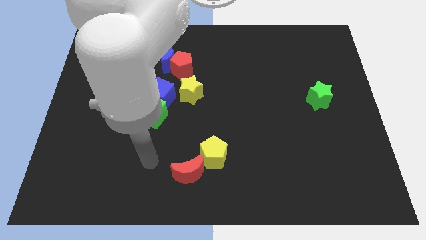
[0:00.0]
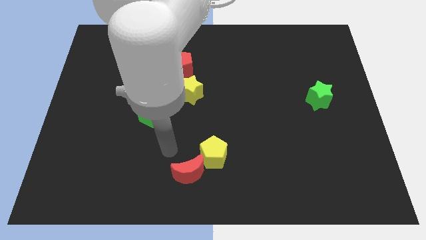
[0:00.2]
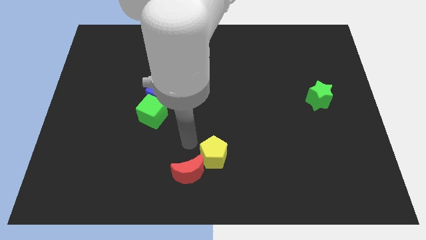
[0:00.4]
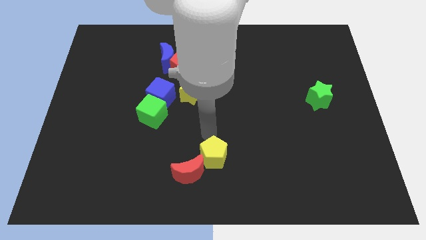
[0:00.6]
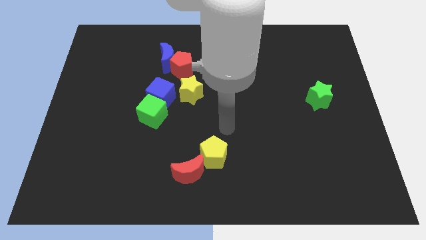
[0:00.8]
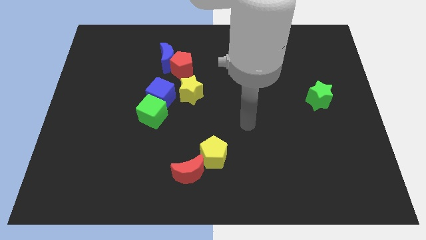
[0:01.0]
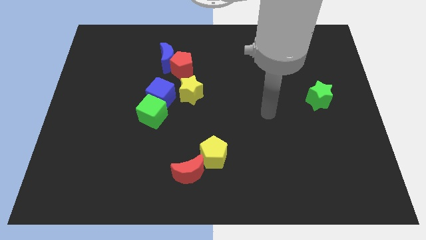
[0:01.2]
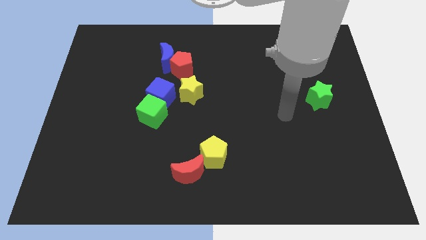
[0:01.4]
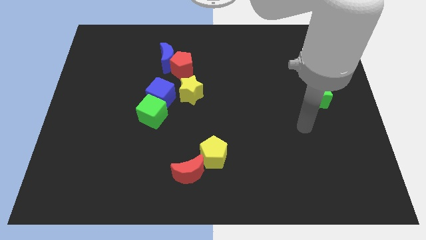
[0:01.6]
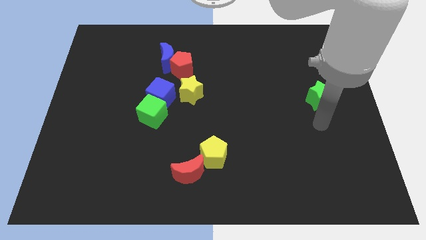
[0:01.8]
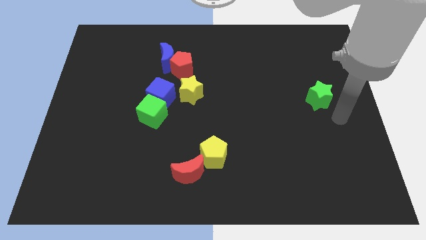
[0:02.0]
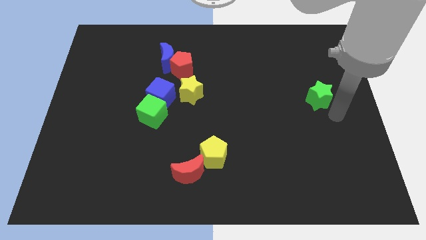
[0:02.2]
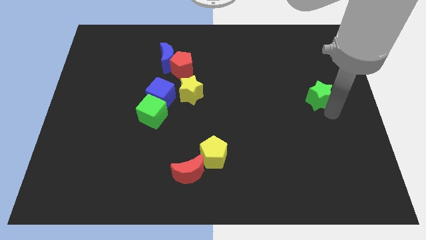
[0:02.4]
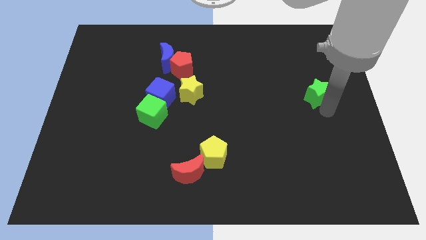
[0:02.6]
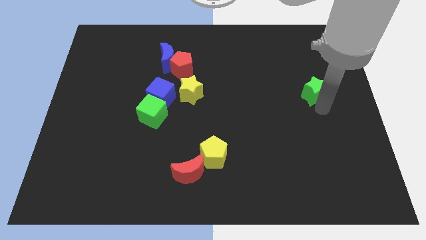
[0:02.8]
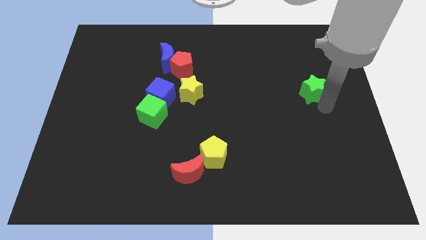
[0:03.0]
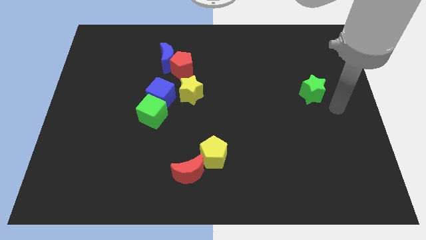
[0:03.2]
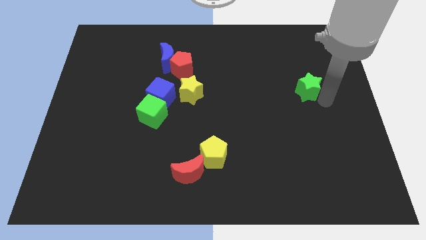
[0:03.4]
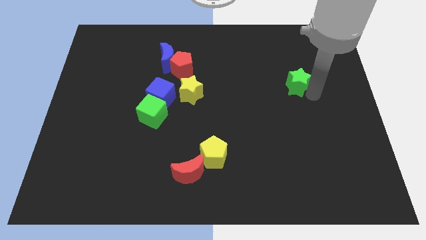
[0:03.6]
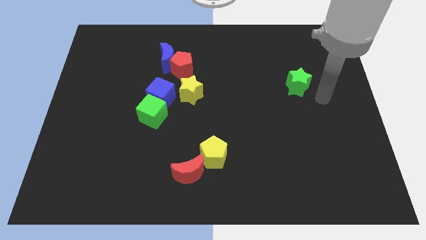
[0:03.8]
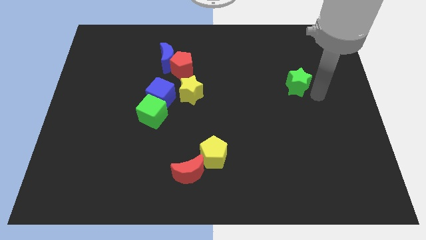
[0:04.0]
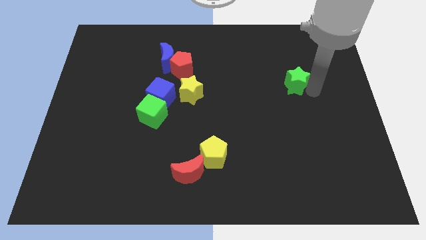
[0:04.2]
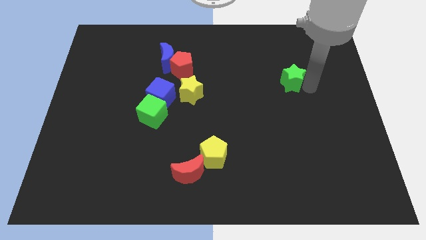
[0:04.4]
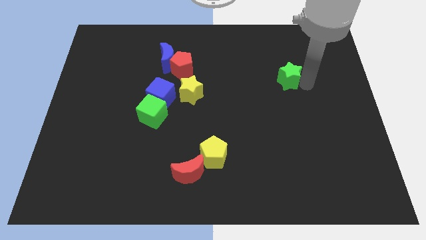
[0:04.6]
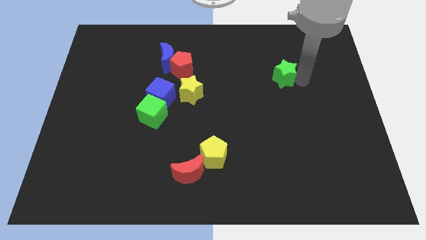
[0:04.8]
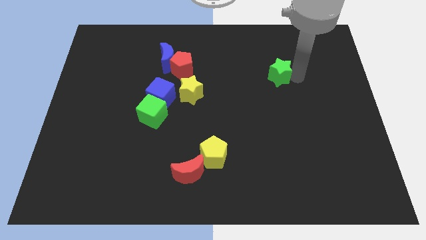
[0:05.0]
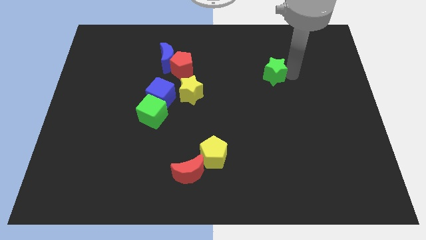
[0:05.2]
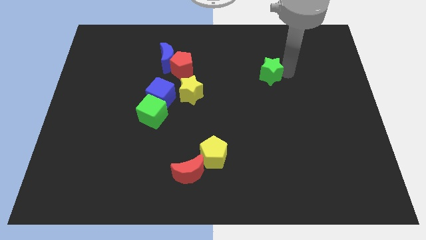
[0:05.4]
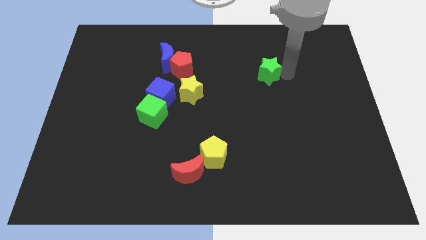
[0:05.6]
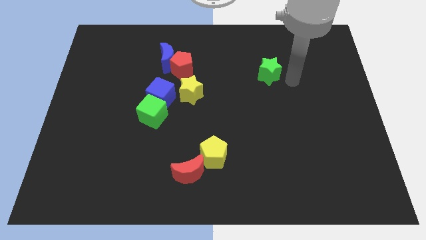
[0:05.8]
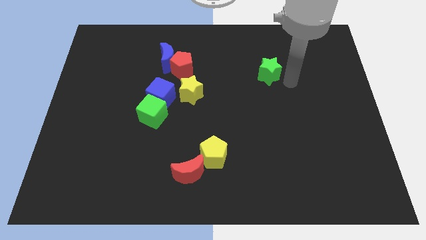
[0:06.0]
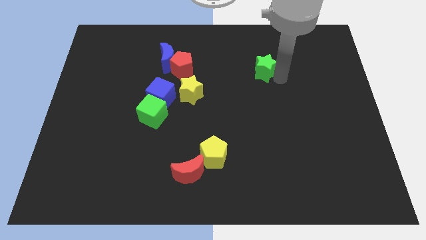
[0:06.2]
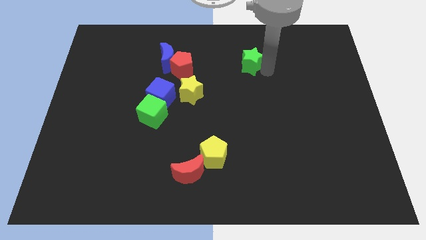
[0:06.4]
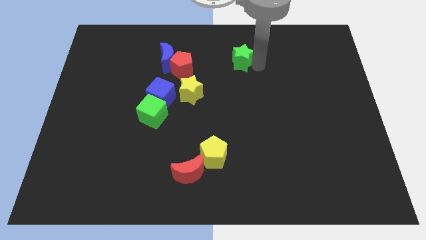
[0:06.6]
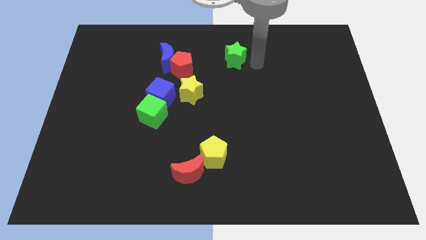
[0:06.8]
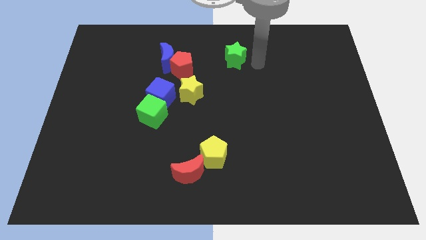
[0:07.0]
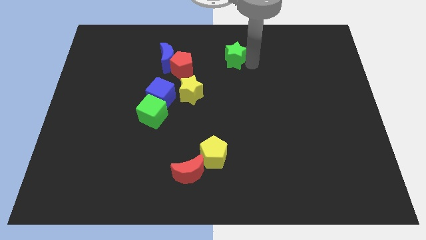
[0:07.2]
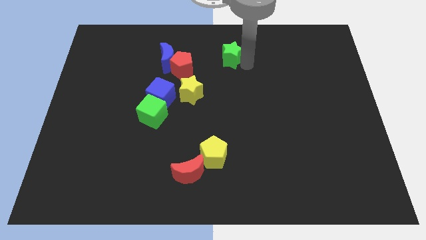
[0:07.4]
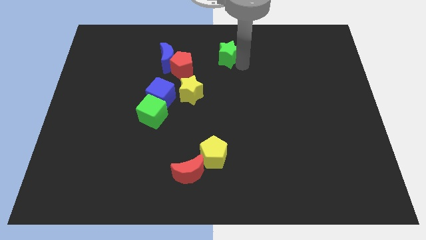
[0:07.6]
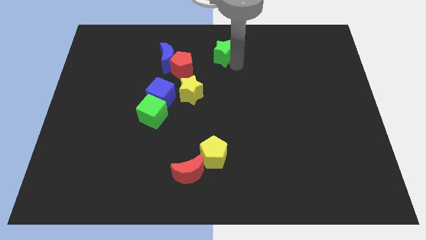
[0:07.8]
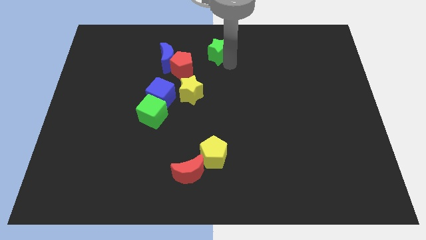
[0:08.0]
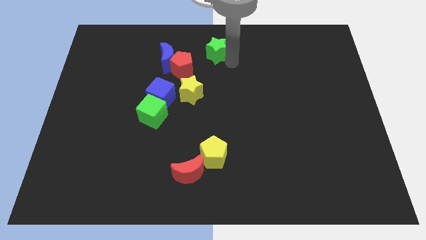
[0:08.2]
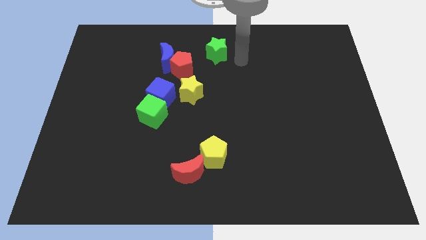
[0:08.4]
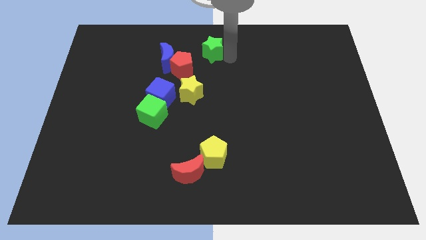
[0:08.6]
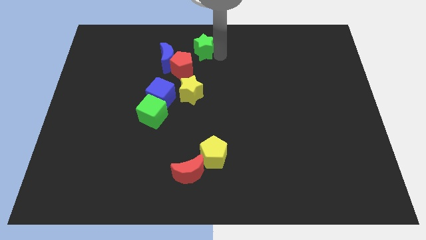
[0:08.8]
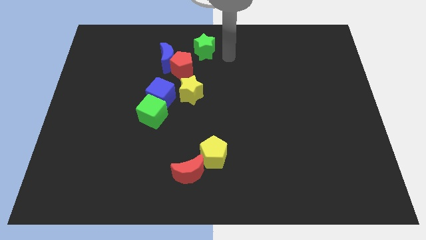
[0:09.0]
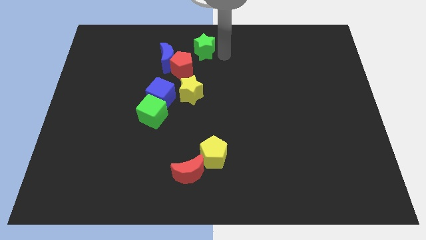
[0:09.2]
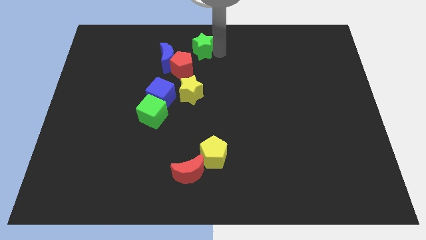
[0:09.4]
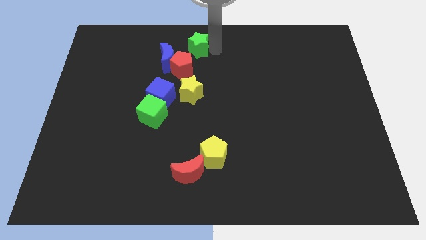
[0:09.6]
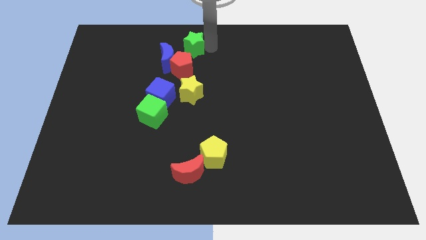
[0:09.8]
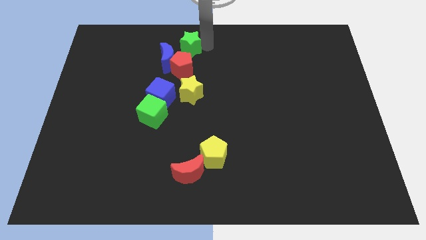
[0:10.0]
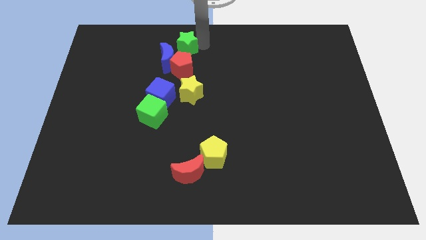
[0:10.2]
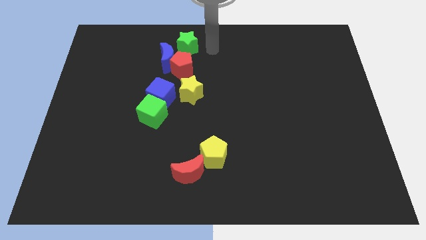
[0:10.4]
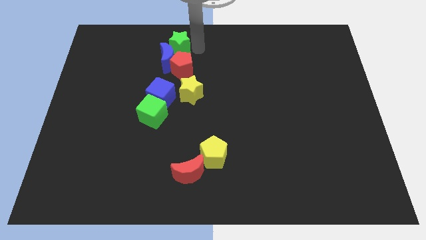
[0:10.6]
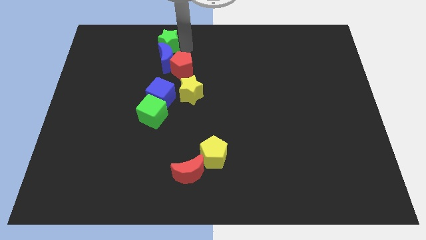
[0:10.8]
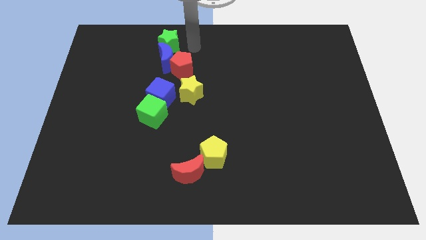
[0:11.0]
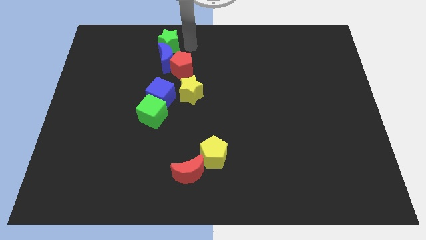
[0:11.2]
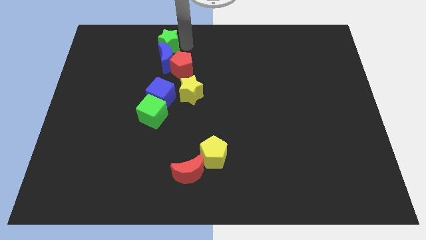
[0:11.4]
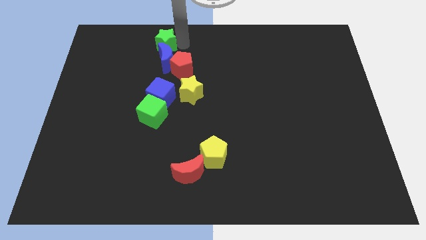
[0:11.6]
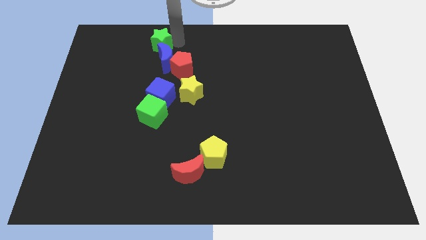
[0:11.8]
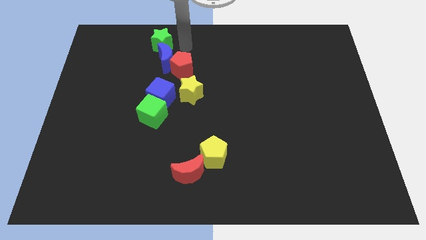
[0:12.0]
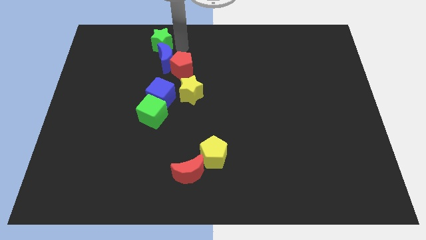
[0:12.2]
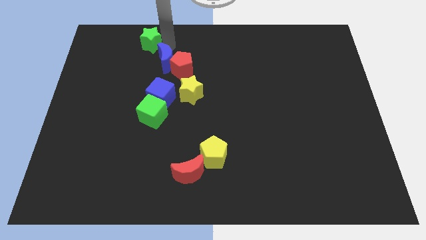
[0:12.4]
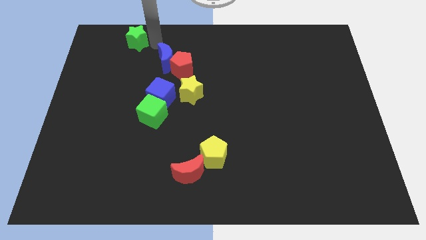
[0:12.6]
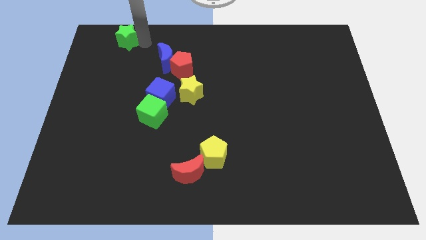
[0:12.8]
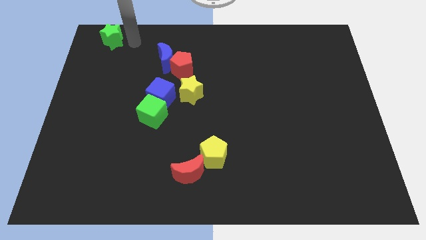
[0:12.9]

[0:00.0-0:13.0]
move the green star to the upper left corner
